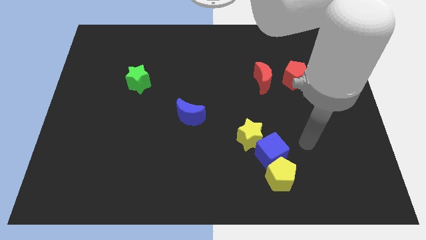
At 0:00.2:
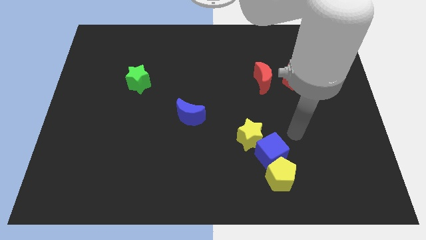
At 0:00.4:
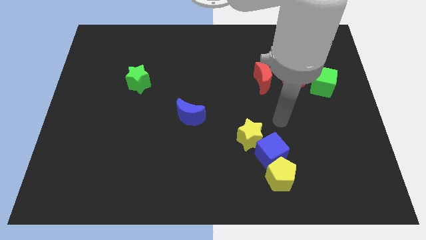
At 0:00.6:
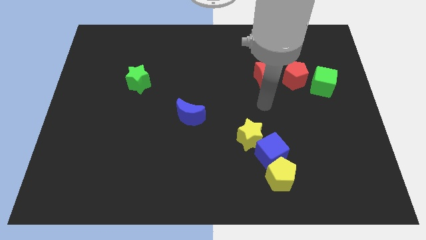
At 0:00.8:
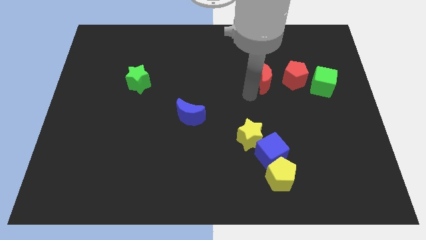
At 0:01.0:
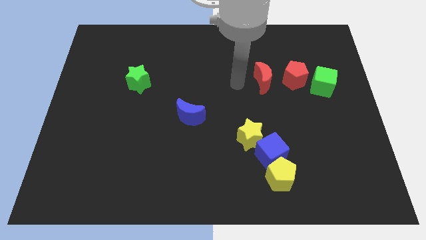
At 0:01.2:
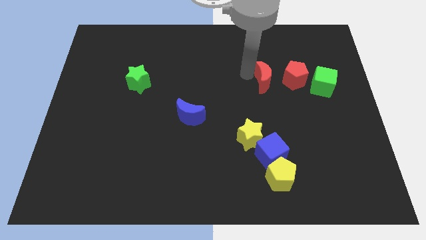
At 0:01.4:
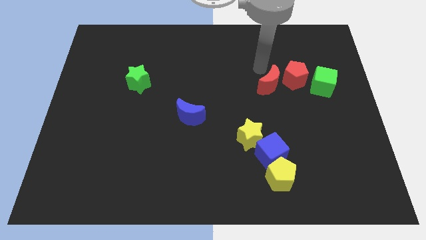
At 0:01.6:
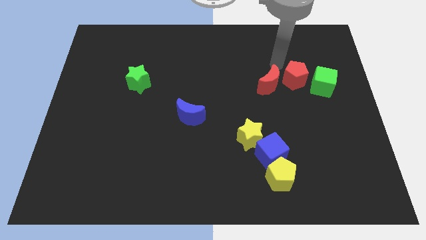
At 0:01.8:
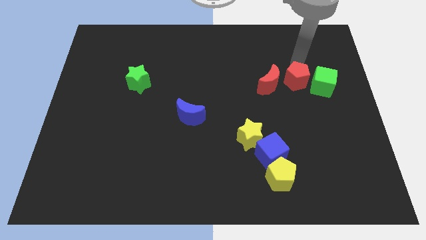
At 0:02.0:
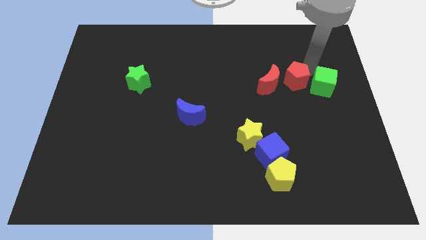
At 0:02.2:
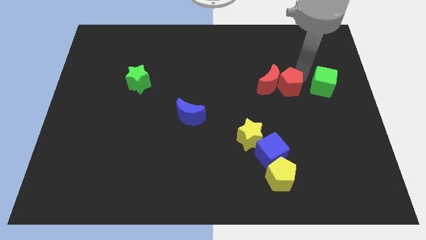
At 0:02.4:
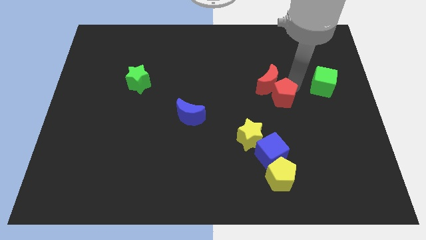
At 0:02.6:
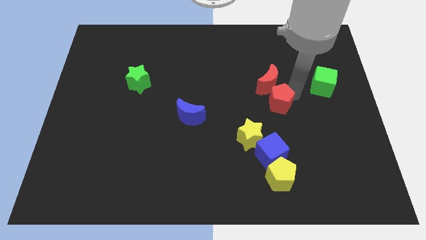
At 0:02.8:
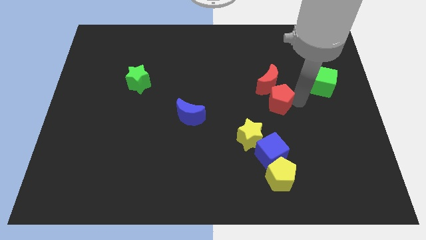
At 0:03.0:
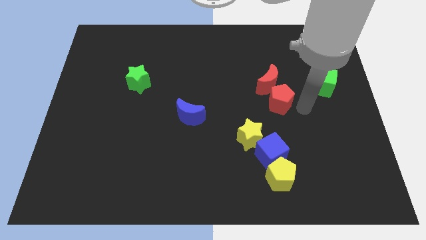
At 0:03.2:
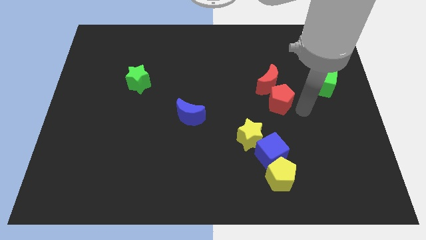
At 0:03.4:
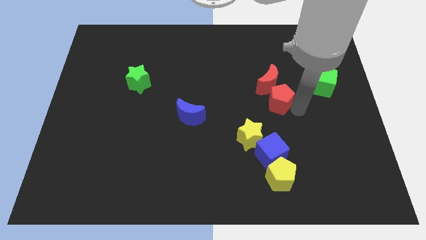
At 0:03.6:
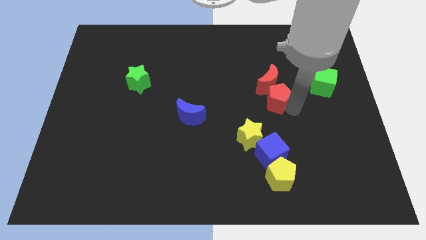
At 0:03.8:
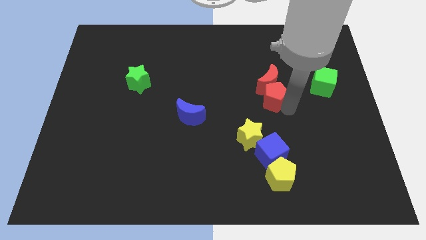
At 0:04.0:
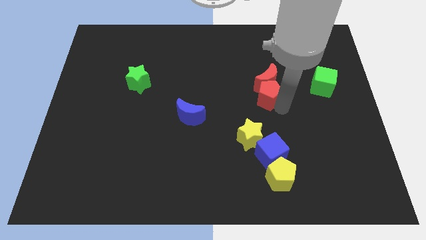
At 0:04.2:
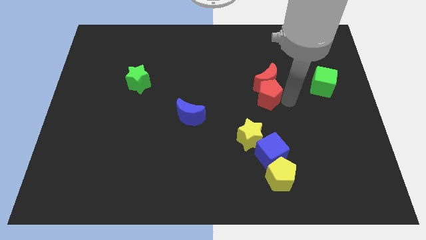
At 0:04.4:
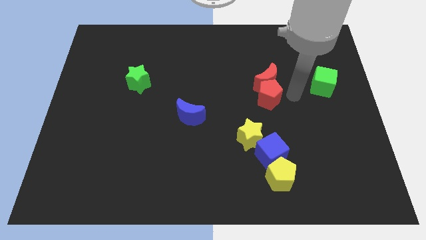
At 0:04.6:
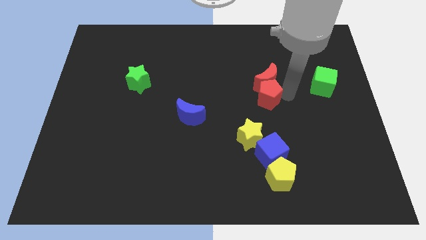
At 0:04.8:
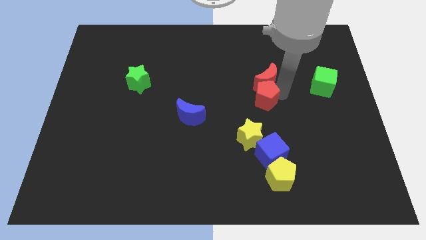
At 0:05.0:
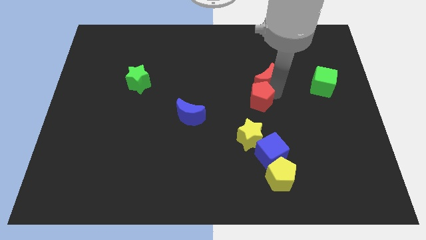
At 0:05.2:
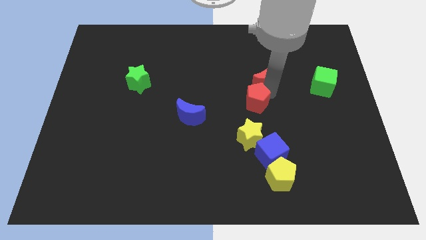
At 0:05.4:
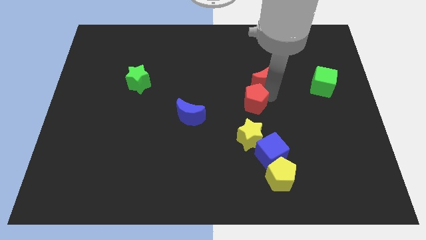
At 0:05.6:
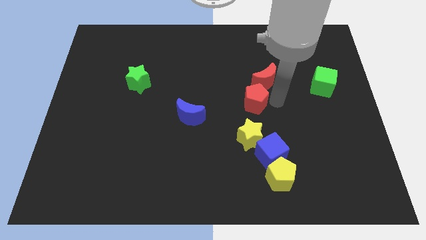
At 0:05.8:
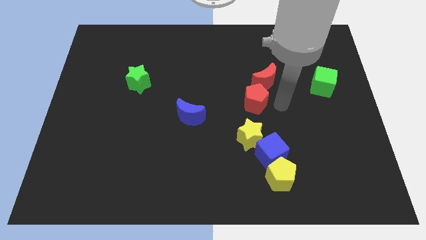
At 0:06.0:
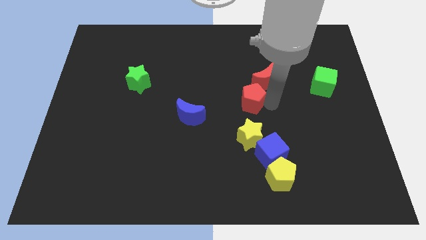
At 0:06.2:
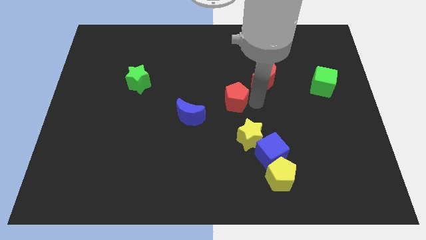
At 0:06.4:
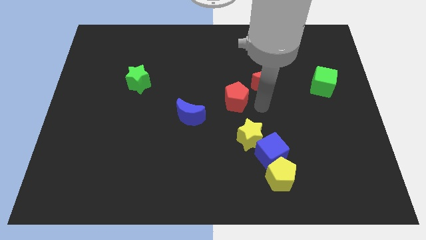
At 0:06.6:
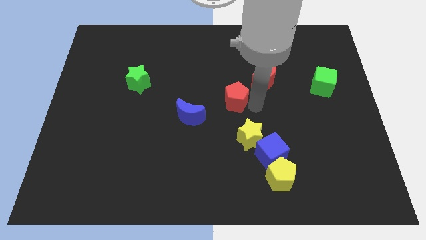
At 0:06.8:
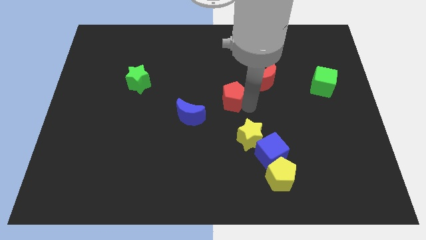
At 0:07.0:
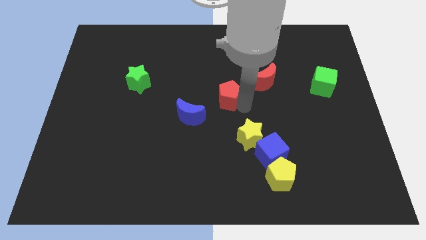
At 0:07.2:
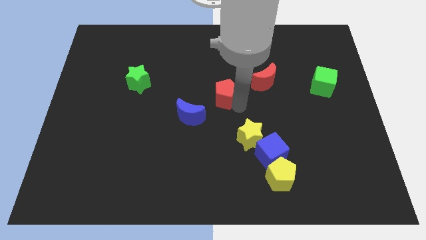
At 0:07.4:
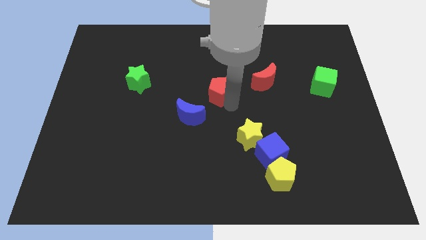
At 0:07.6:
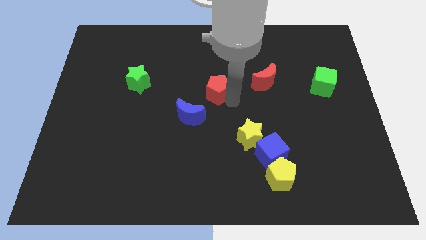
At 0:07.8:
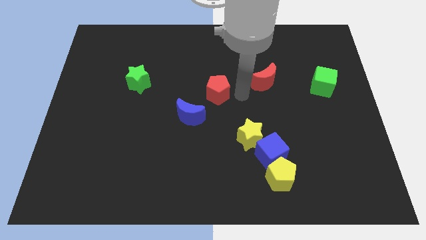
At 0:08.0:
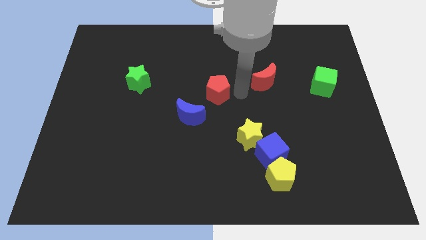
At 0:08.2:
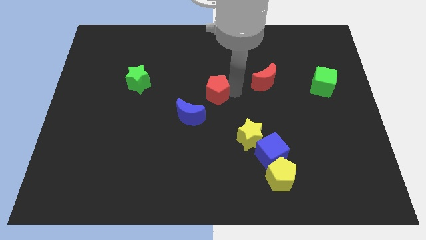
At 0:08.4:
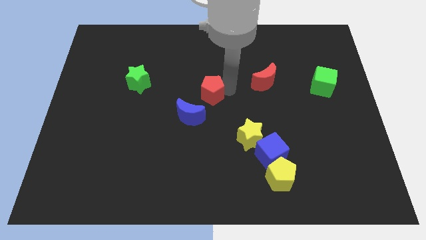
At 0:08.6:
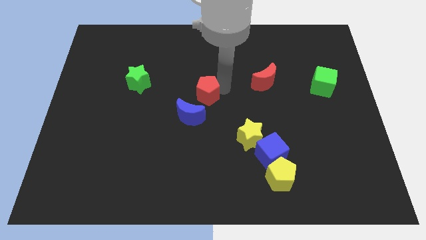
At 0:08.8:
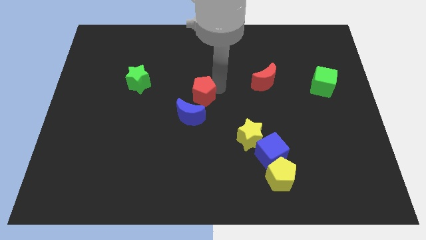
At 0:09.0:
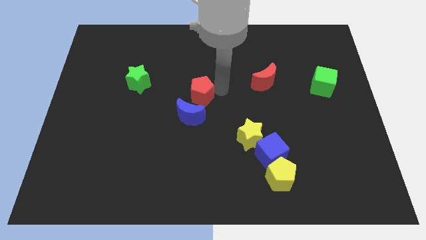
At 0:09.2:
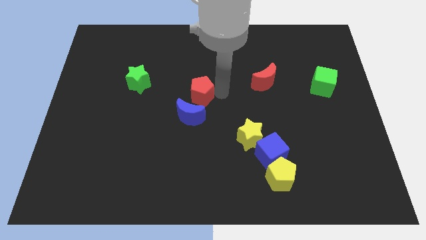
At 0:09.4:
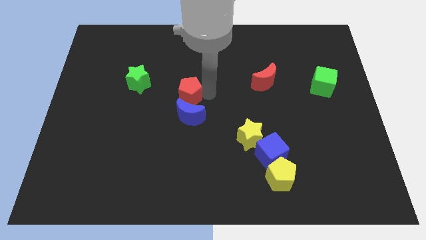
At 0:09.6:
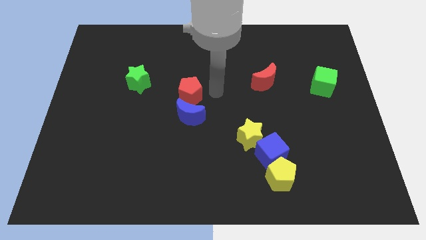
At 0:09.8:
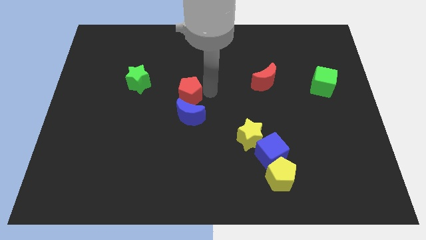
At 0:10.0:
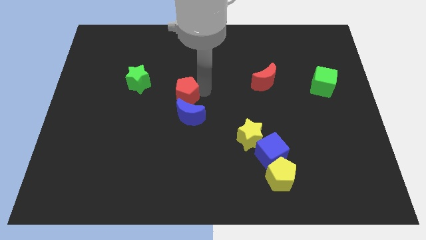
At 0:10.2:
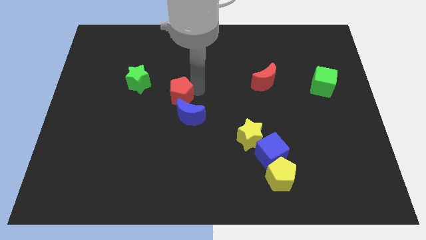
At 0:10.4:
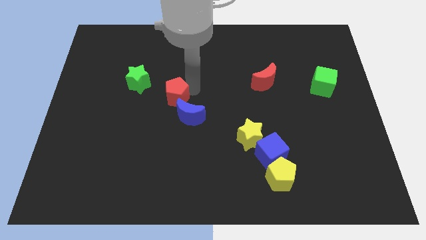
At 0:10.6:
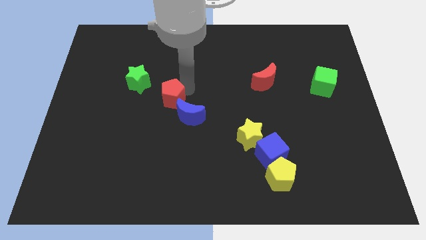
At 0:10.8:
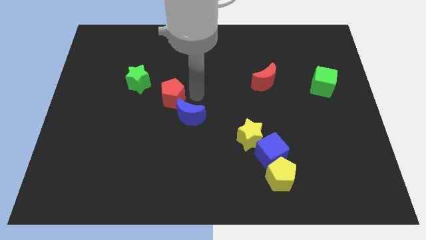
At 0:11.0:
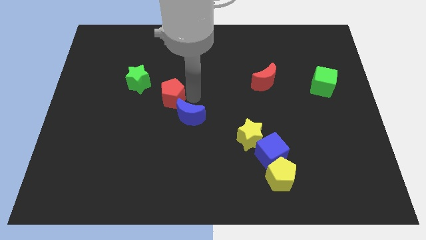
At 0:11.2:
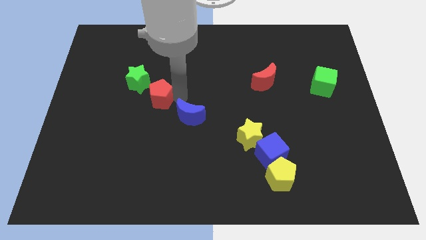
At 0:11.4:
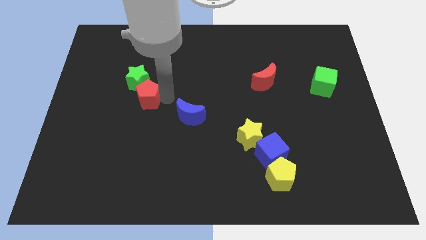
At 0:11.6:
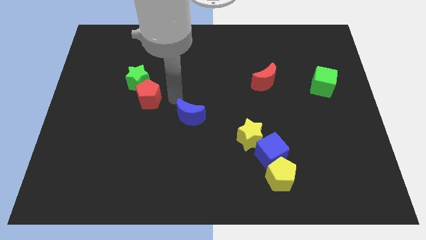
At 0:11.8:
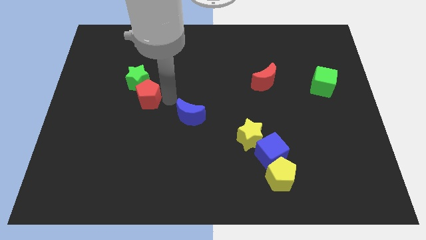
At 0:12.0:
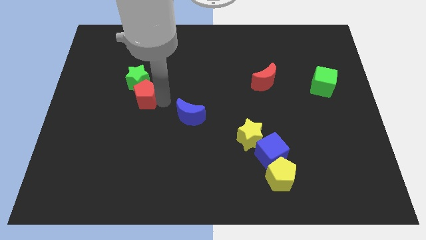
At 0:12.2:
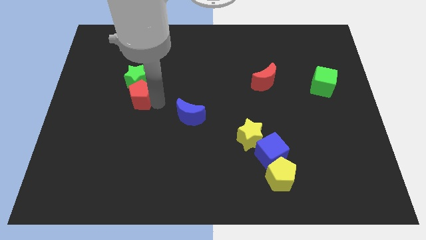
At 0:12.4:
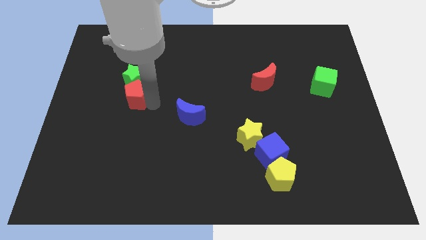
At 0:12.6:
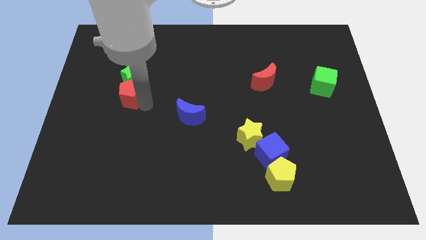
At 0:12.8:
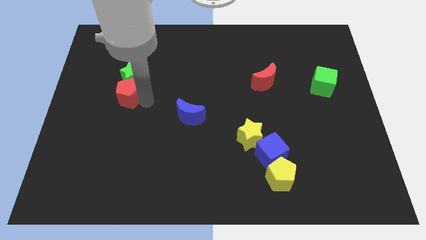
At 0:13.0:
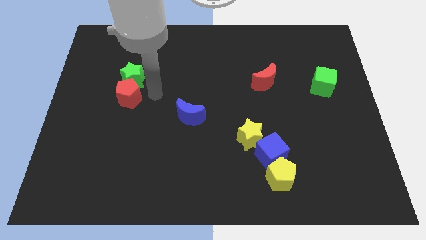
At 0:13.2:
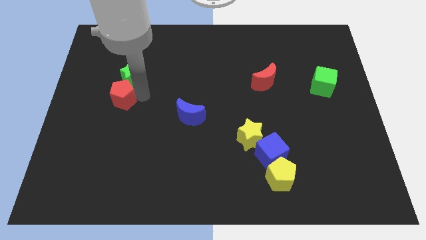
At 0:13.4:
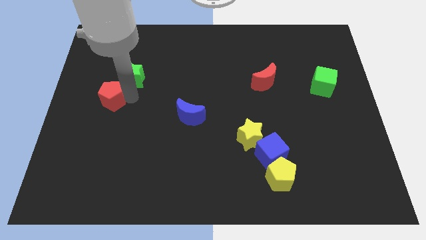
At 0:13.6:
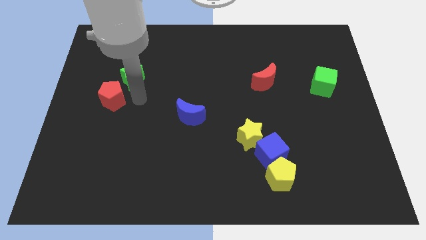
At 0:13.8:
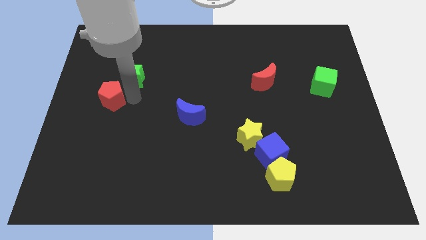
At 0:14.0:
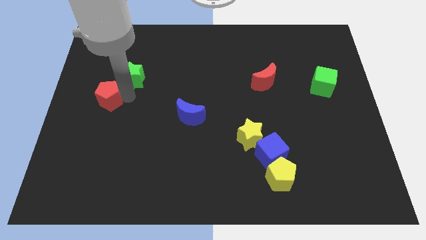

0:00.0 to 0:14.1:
slide the red pentagon to the left side of the board

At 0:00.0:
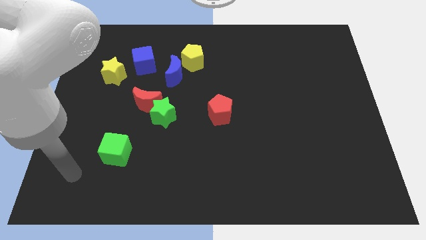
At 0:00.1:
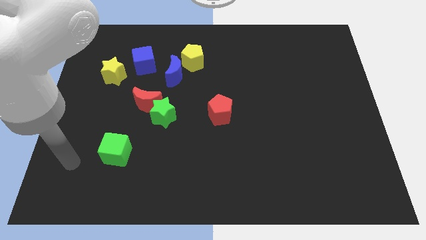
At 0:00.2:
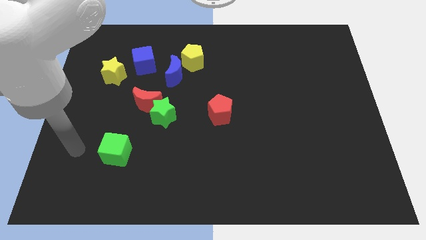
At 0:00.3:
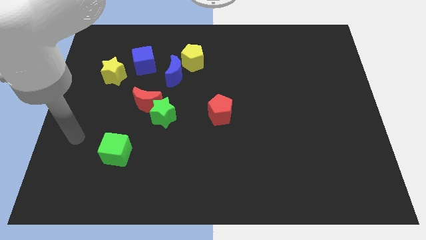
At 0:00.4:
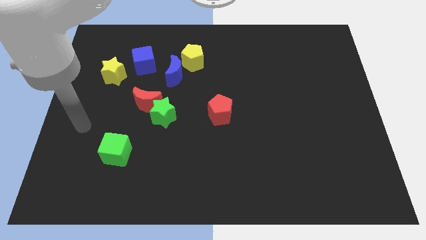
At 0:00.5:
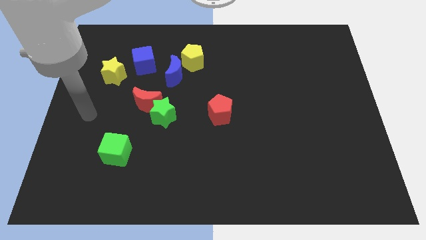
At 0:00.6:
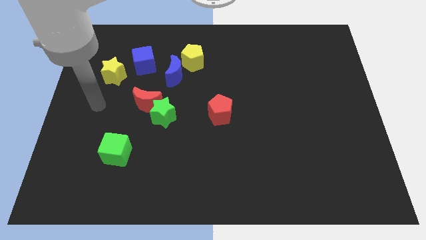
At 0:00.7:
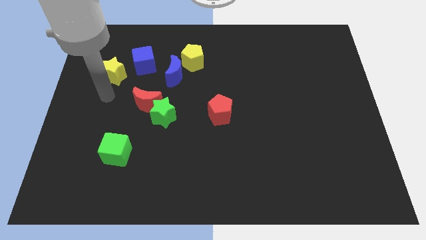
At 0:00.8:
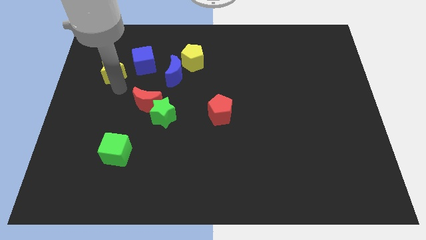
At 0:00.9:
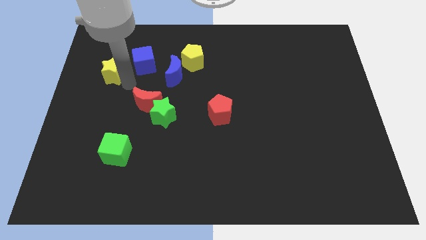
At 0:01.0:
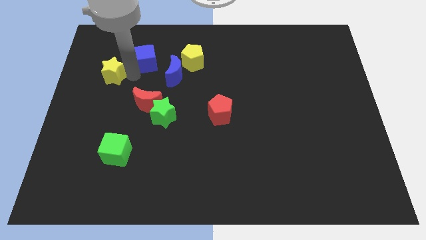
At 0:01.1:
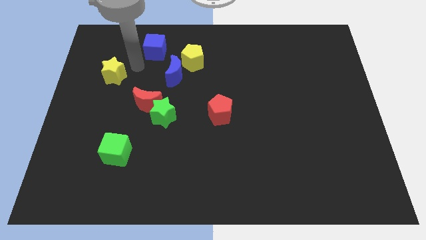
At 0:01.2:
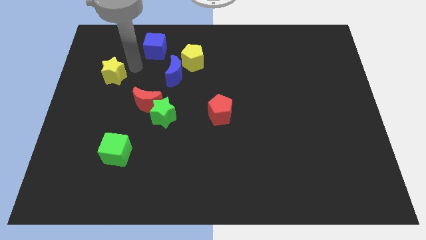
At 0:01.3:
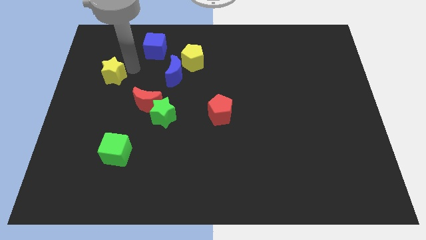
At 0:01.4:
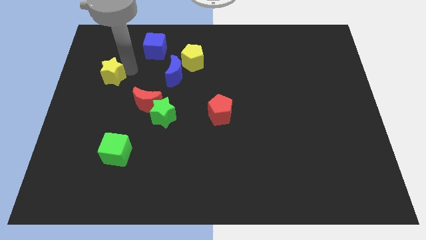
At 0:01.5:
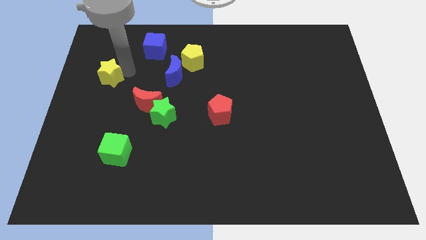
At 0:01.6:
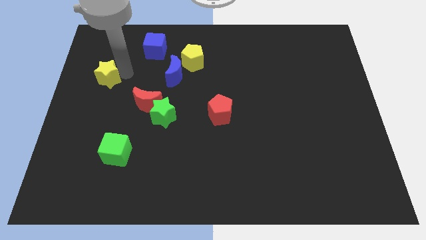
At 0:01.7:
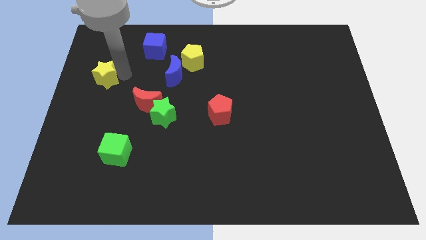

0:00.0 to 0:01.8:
push the yellow star to the left side
